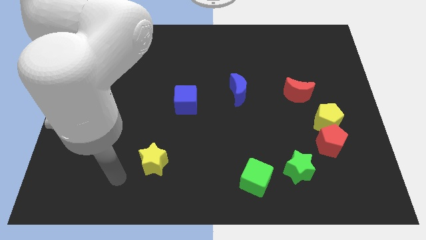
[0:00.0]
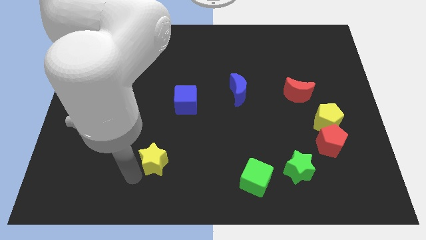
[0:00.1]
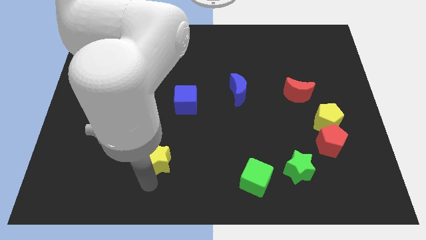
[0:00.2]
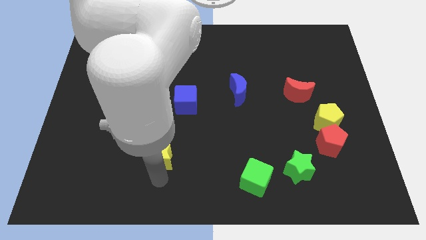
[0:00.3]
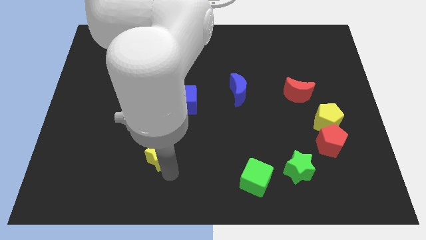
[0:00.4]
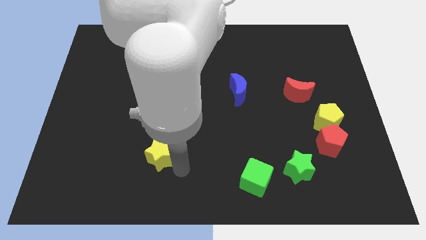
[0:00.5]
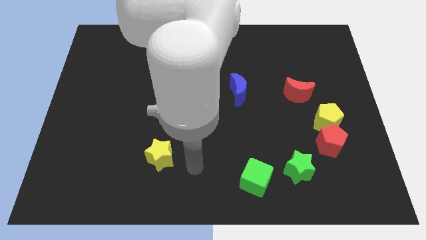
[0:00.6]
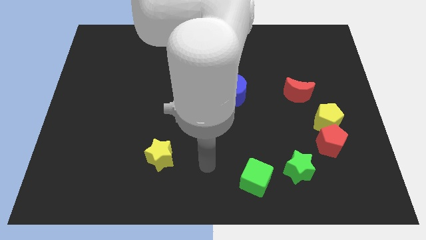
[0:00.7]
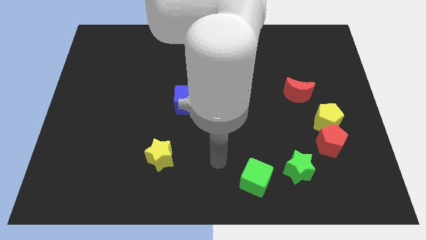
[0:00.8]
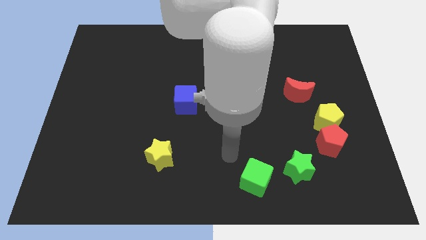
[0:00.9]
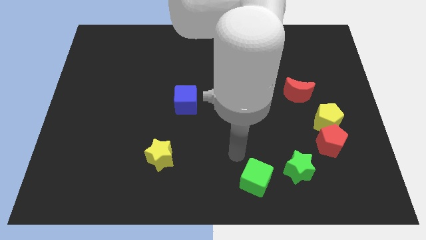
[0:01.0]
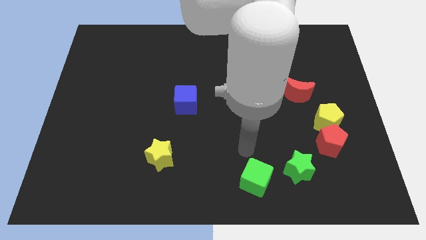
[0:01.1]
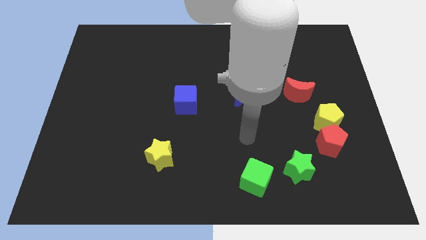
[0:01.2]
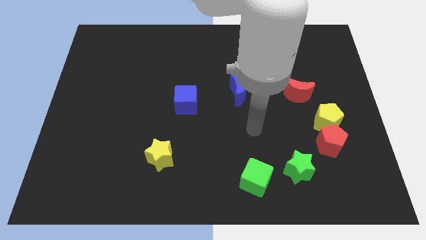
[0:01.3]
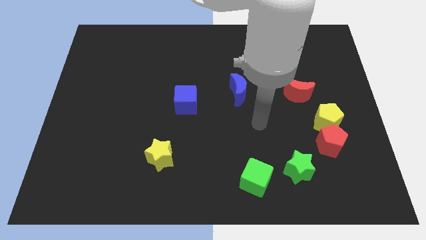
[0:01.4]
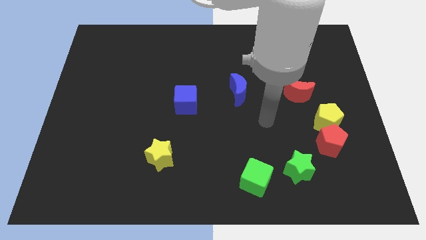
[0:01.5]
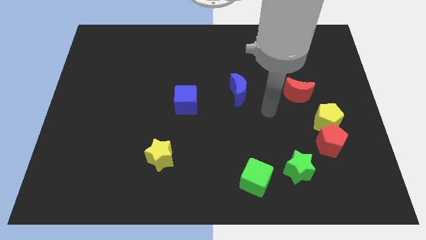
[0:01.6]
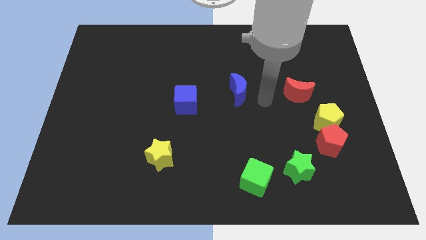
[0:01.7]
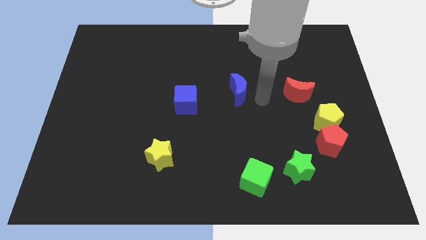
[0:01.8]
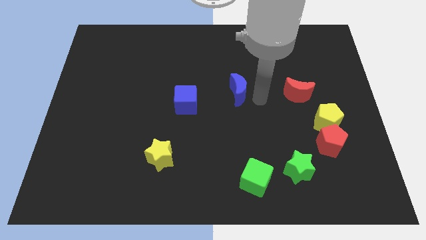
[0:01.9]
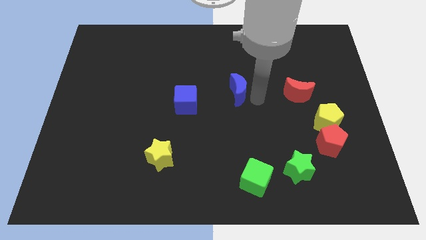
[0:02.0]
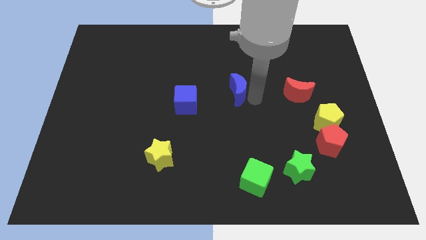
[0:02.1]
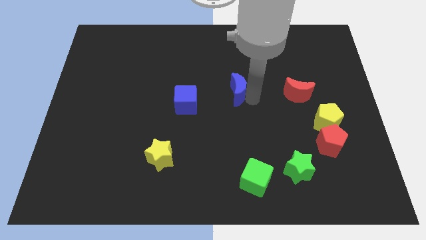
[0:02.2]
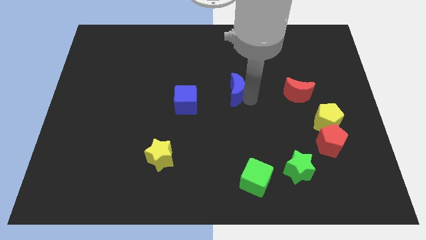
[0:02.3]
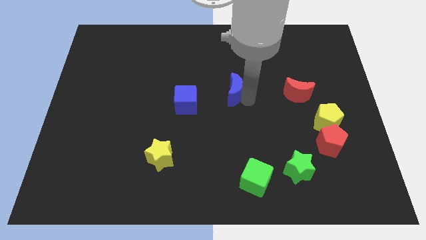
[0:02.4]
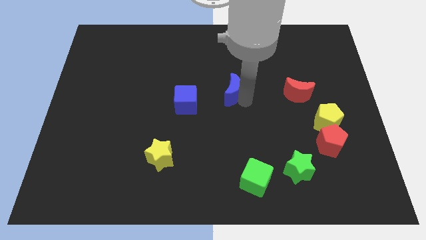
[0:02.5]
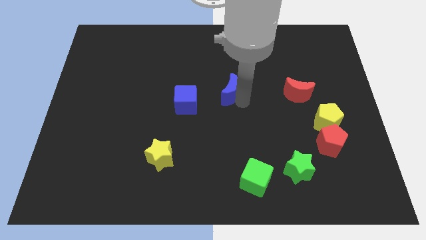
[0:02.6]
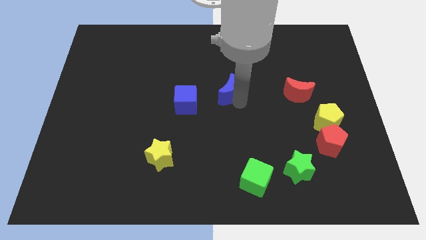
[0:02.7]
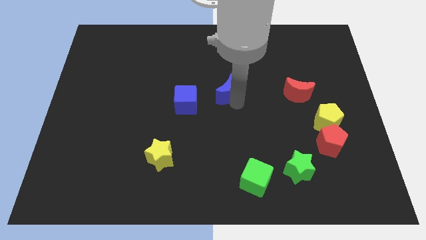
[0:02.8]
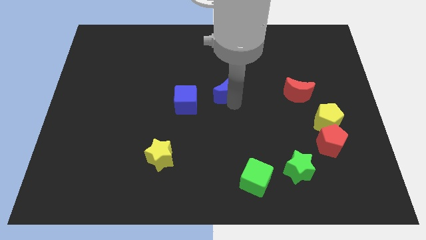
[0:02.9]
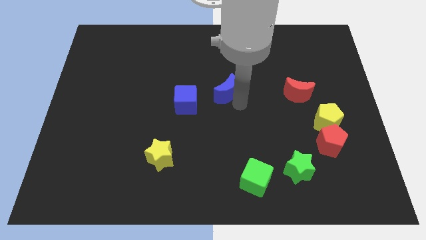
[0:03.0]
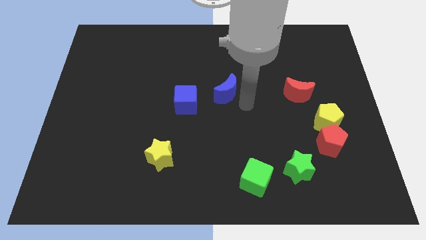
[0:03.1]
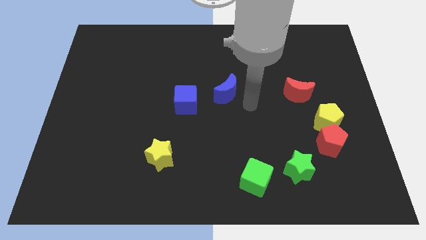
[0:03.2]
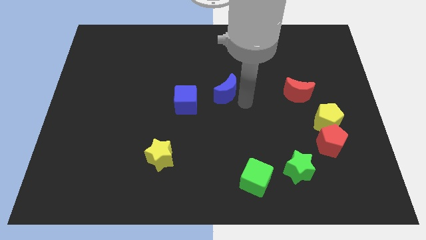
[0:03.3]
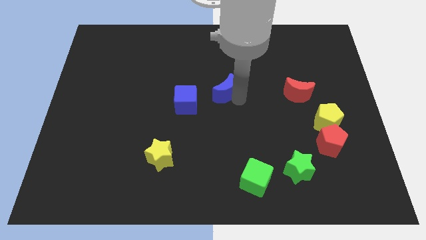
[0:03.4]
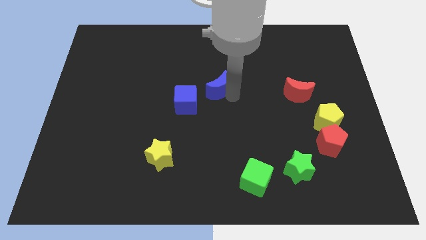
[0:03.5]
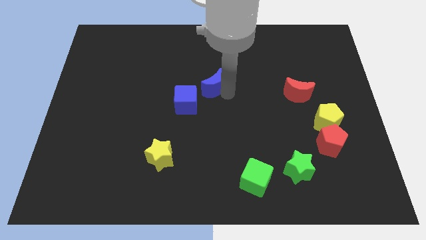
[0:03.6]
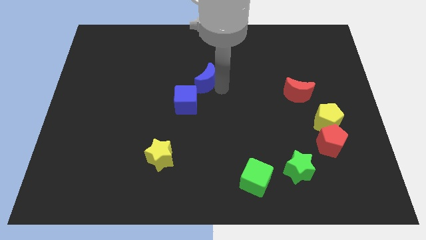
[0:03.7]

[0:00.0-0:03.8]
slide the blue moon to the left a little

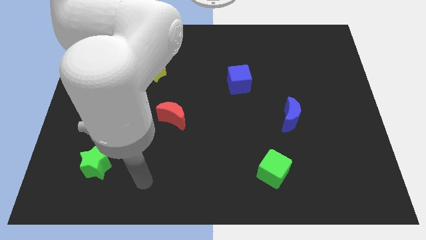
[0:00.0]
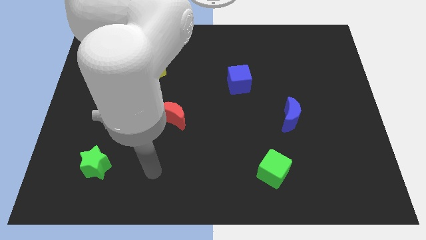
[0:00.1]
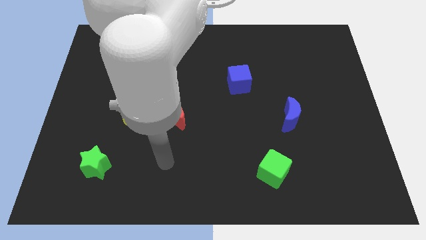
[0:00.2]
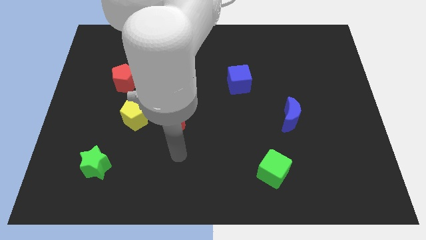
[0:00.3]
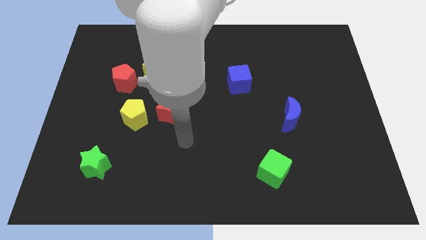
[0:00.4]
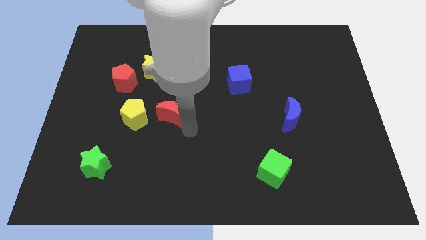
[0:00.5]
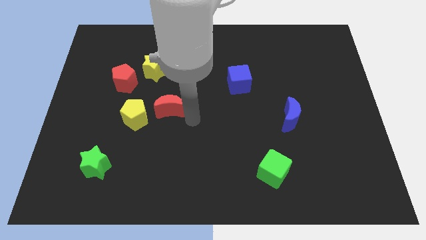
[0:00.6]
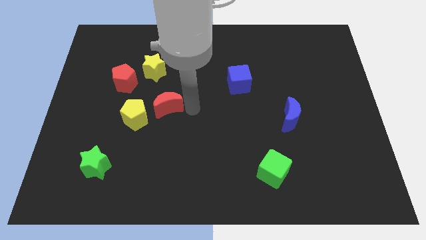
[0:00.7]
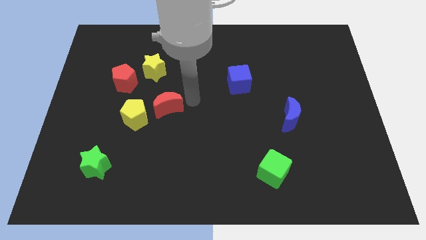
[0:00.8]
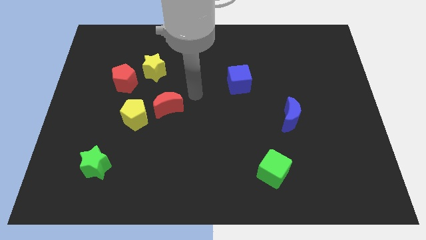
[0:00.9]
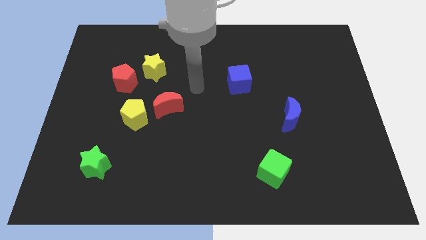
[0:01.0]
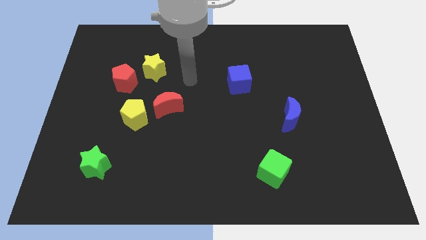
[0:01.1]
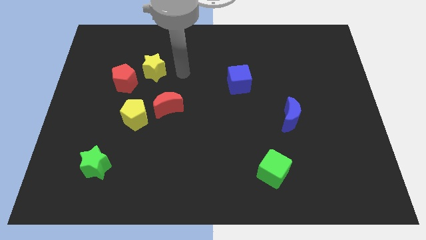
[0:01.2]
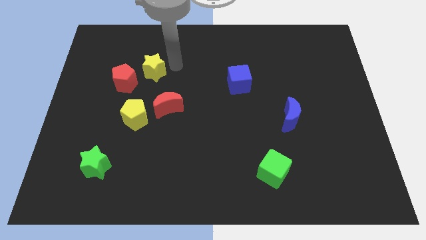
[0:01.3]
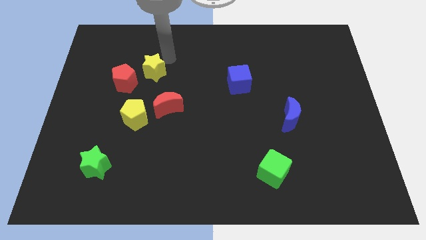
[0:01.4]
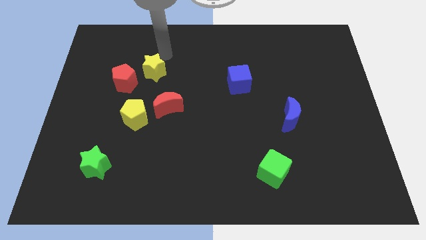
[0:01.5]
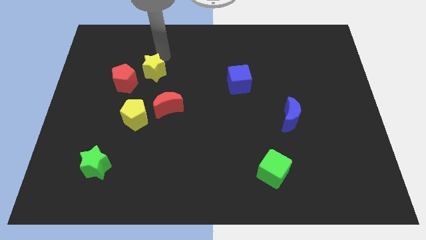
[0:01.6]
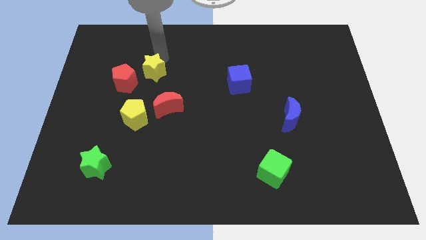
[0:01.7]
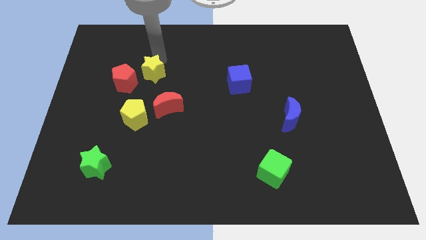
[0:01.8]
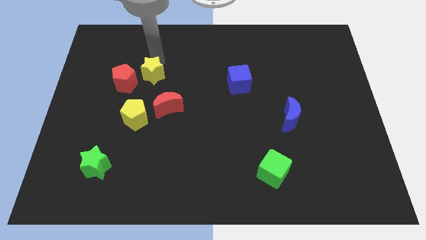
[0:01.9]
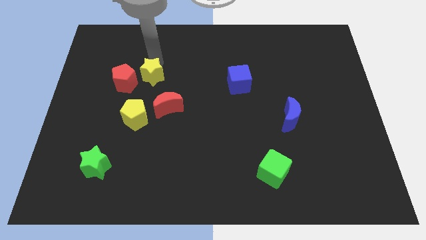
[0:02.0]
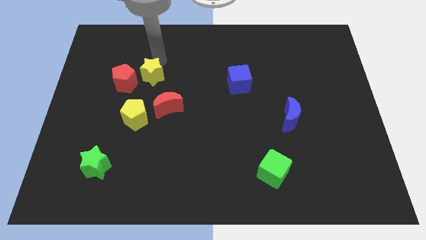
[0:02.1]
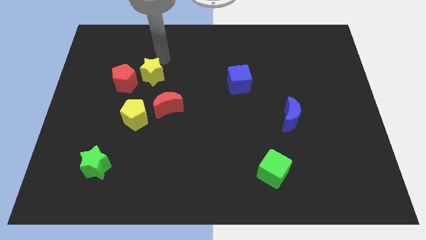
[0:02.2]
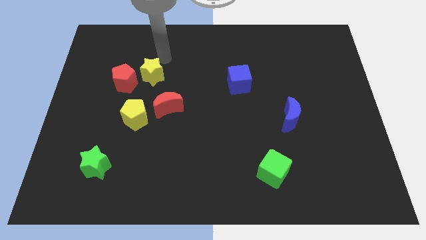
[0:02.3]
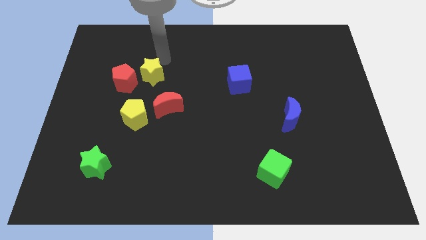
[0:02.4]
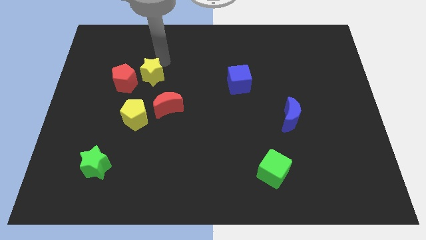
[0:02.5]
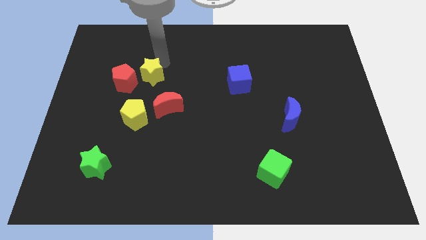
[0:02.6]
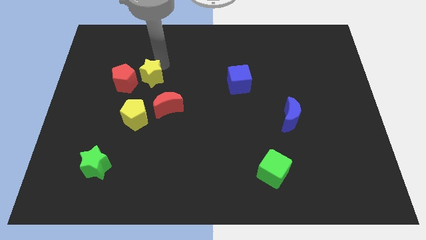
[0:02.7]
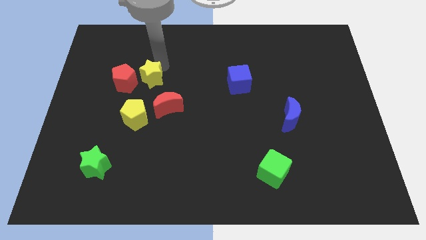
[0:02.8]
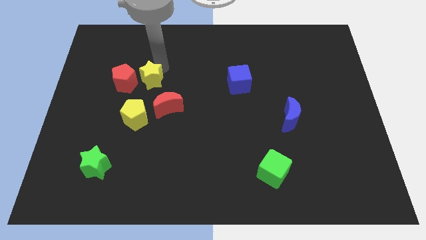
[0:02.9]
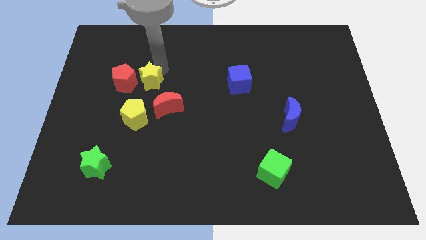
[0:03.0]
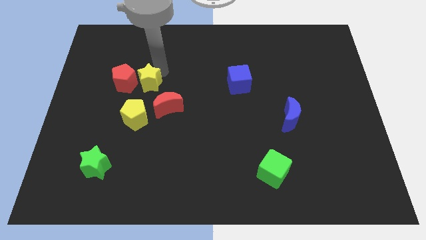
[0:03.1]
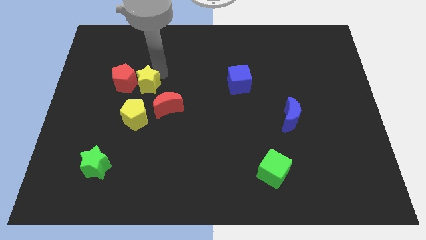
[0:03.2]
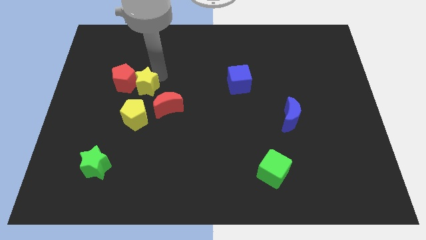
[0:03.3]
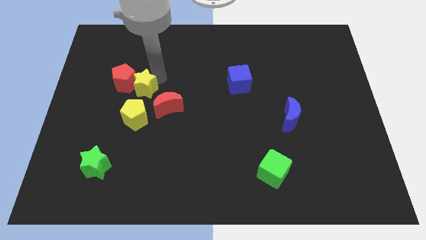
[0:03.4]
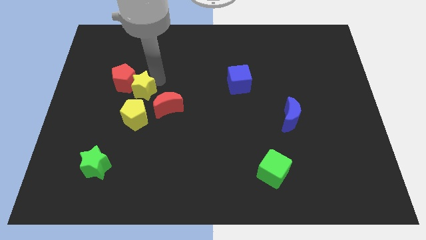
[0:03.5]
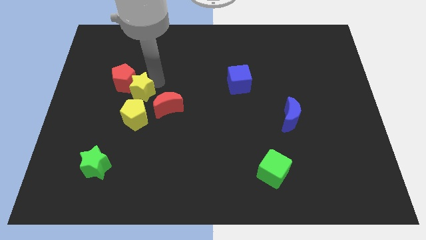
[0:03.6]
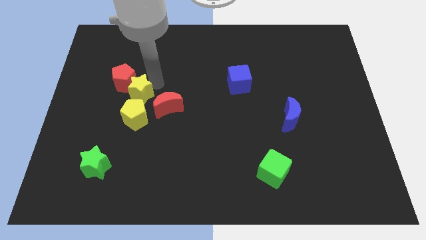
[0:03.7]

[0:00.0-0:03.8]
move the yellow star somewhat downwards

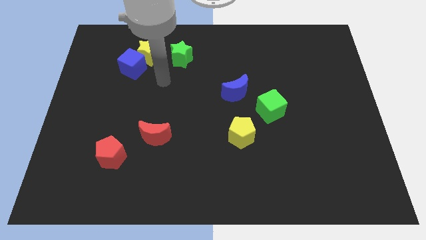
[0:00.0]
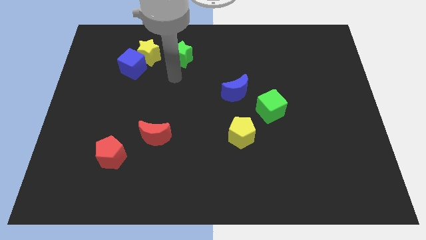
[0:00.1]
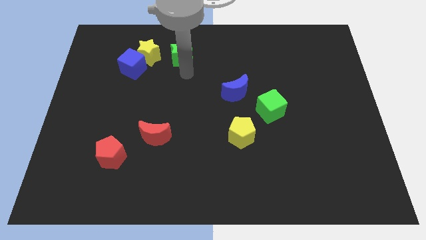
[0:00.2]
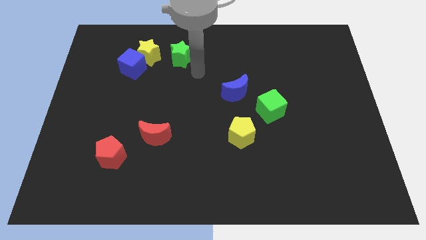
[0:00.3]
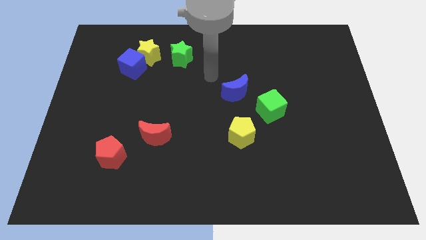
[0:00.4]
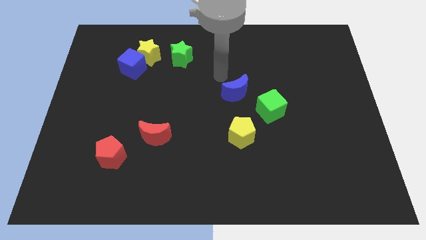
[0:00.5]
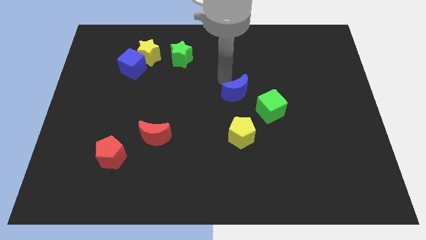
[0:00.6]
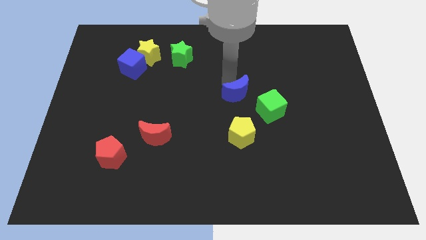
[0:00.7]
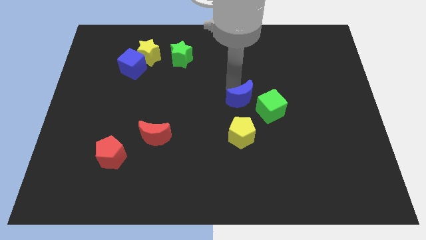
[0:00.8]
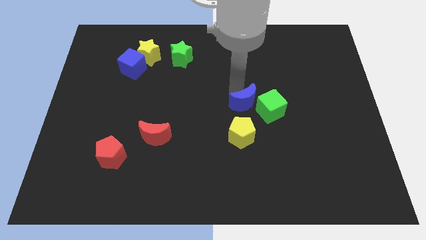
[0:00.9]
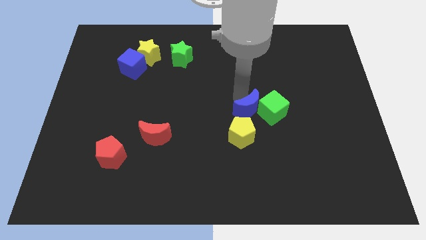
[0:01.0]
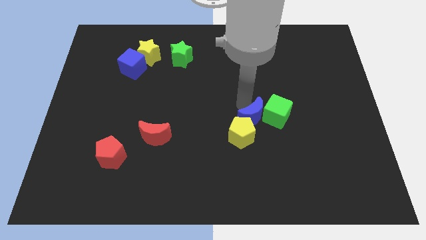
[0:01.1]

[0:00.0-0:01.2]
move the blue moon slightly diagonally down and right
